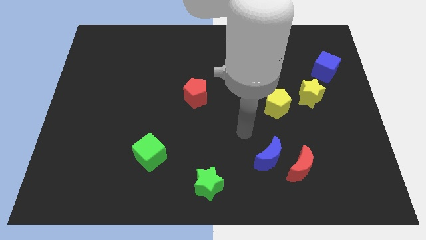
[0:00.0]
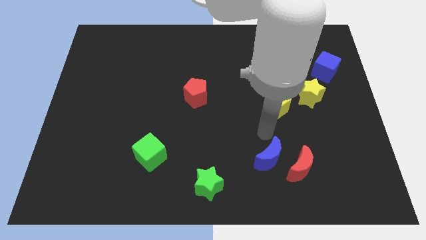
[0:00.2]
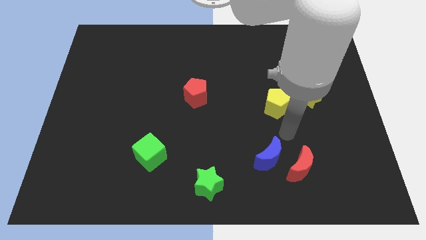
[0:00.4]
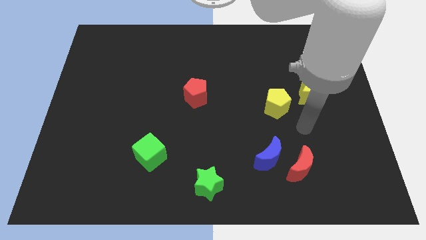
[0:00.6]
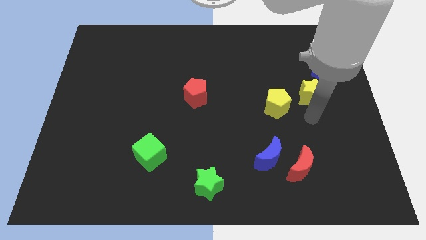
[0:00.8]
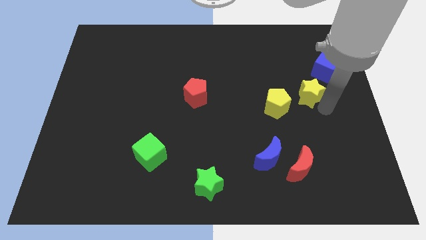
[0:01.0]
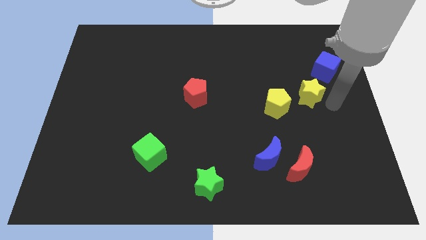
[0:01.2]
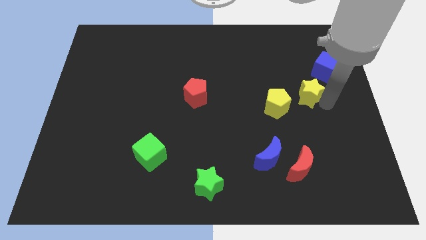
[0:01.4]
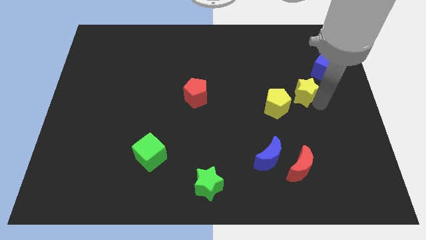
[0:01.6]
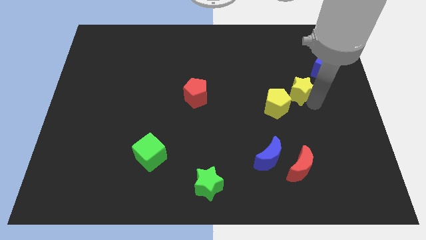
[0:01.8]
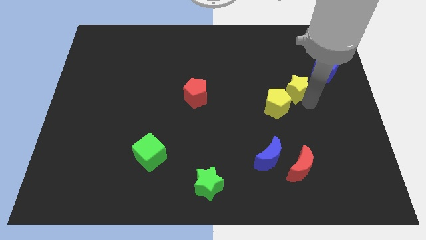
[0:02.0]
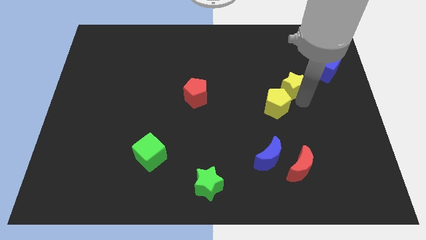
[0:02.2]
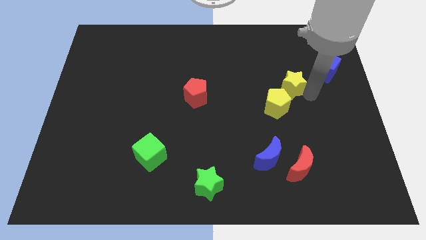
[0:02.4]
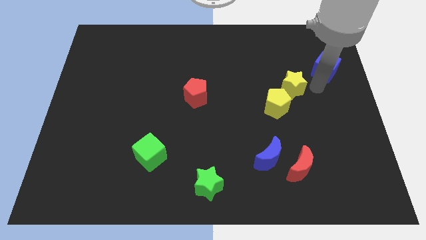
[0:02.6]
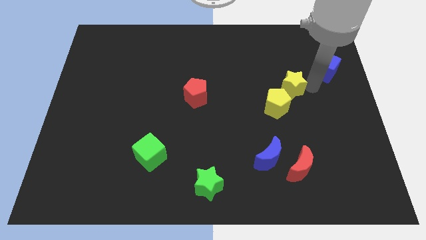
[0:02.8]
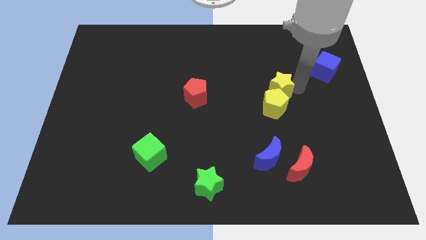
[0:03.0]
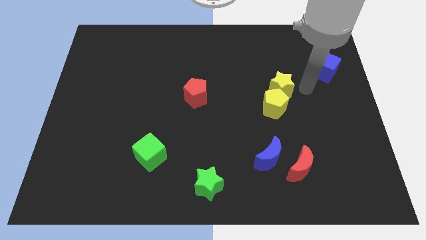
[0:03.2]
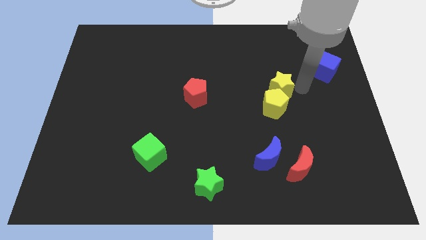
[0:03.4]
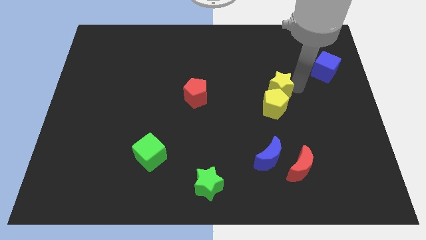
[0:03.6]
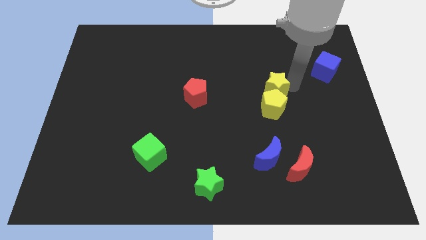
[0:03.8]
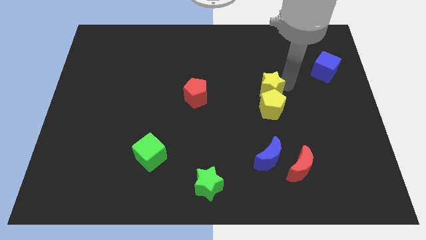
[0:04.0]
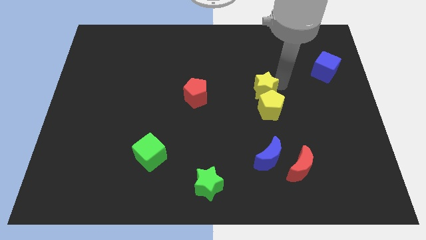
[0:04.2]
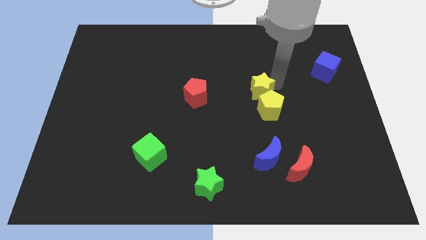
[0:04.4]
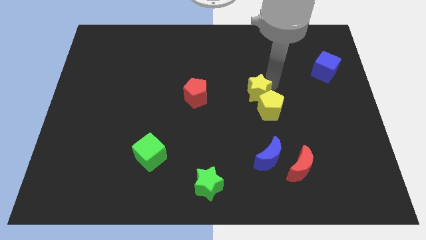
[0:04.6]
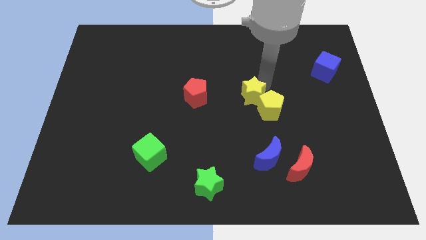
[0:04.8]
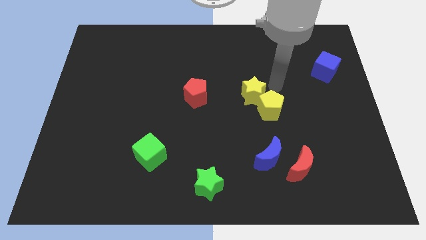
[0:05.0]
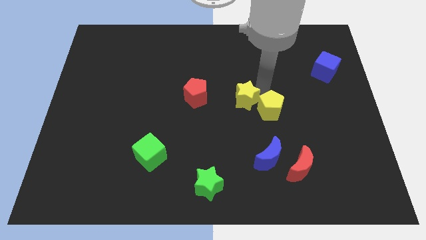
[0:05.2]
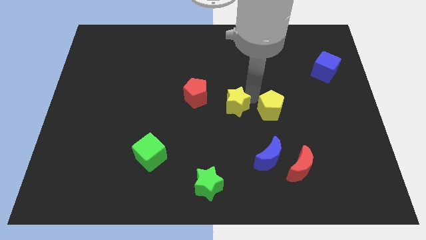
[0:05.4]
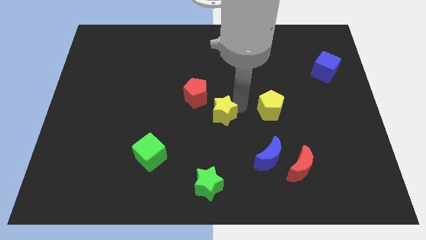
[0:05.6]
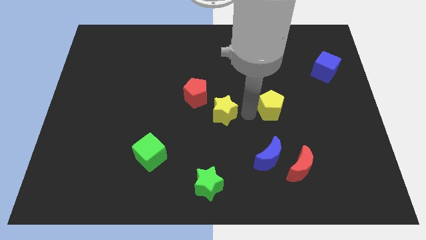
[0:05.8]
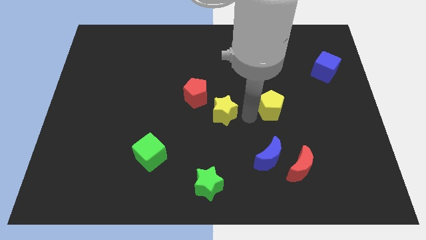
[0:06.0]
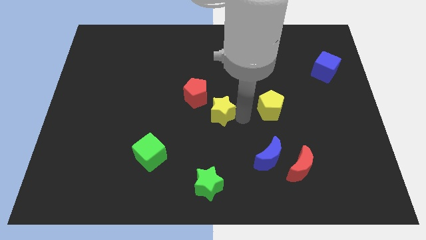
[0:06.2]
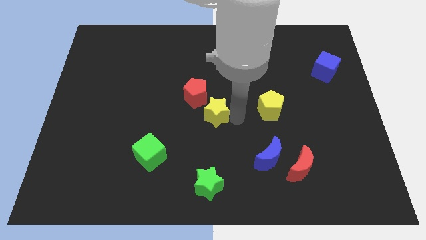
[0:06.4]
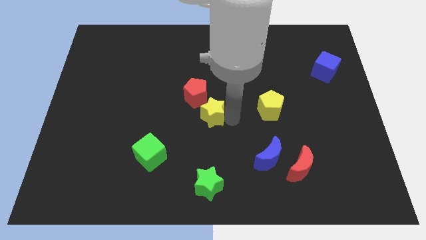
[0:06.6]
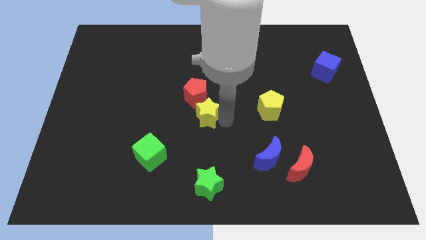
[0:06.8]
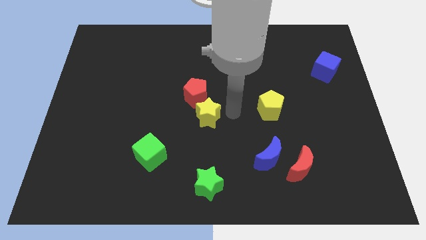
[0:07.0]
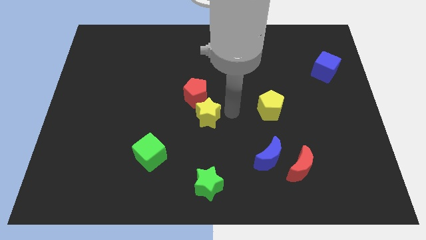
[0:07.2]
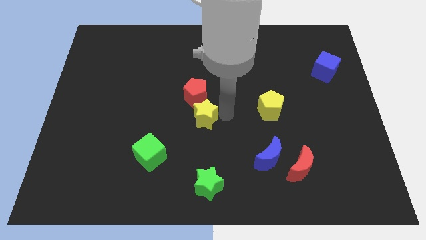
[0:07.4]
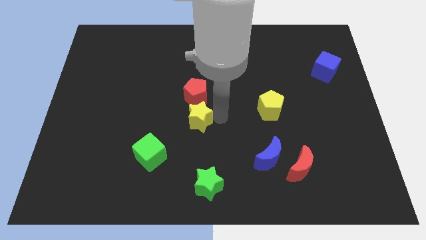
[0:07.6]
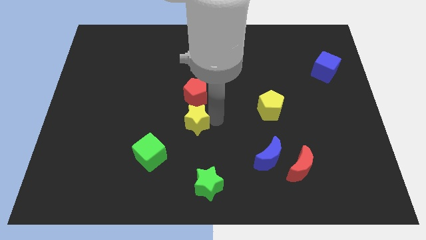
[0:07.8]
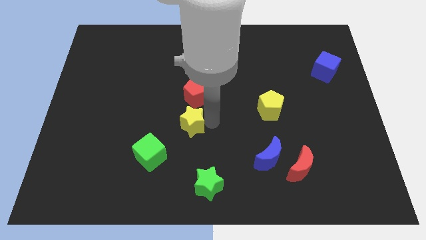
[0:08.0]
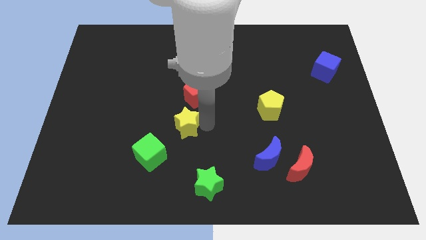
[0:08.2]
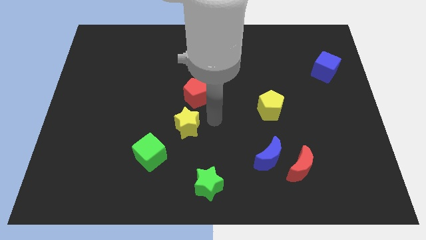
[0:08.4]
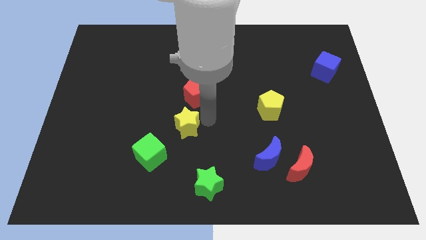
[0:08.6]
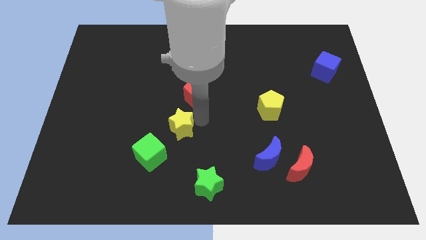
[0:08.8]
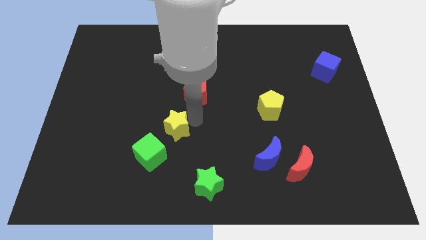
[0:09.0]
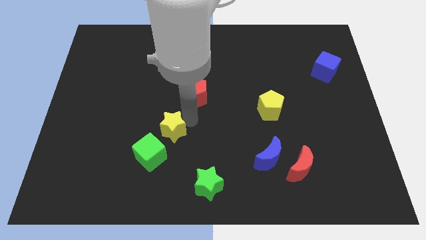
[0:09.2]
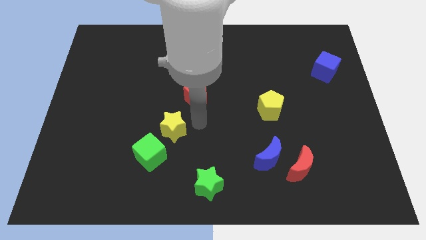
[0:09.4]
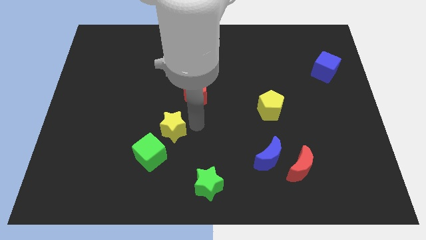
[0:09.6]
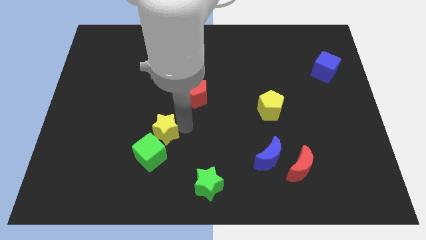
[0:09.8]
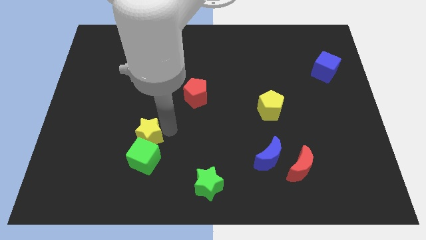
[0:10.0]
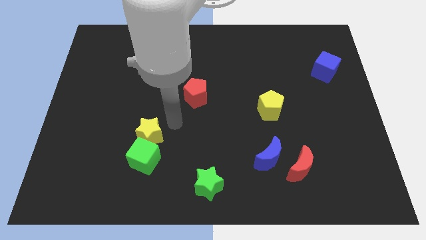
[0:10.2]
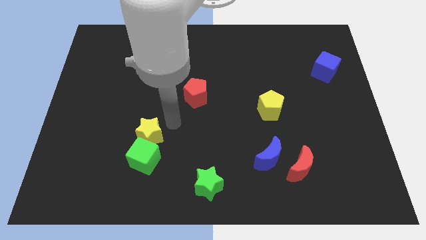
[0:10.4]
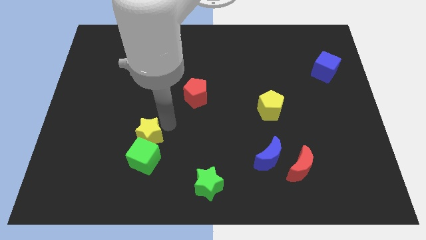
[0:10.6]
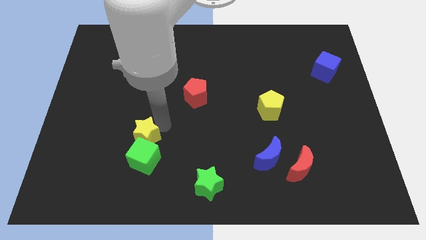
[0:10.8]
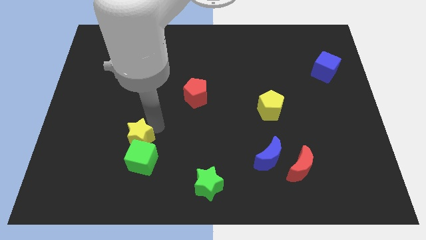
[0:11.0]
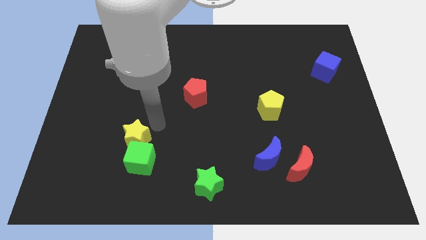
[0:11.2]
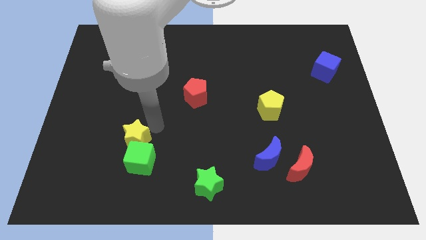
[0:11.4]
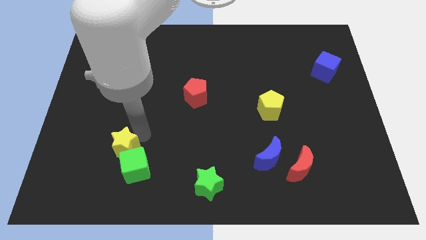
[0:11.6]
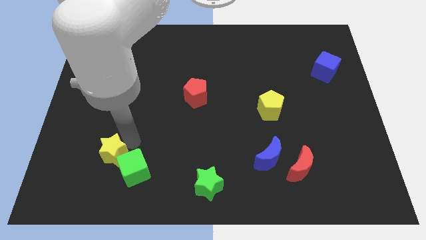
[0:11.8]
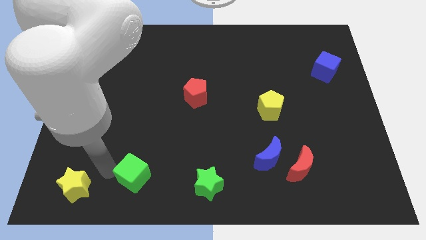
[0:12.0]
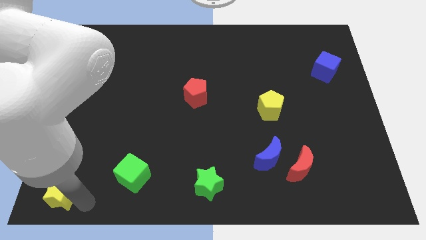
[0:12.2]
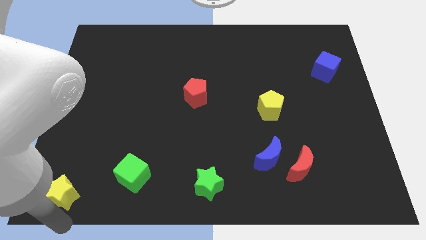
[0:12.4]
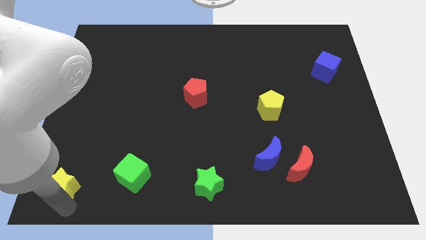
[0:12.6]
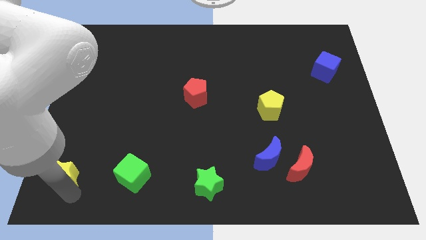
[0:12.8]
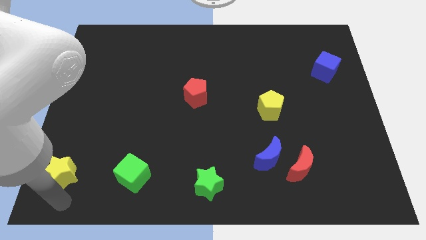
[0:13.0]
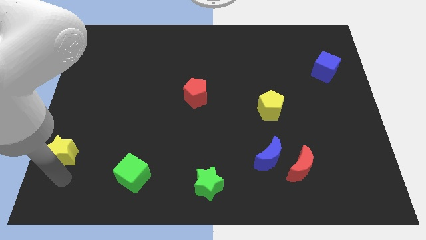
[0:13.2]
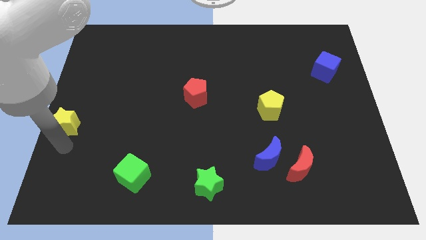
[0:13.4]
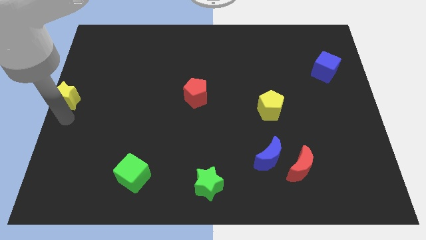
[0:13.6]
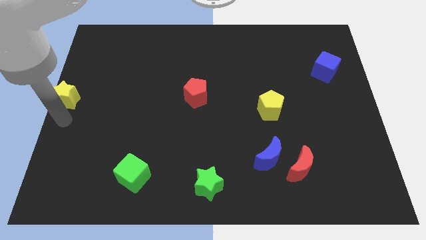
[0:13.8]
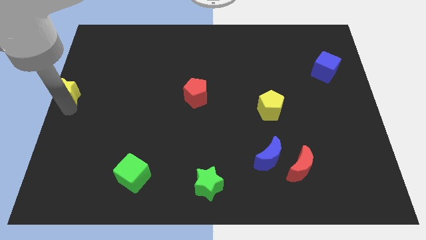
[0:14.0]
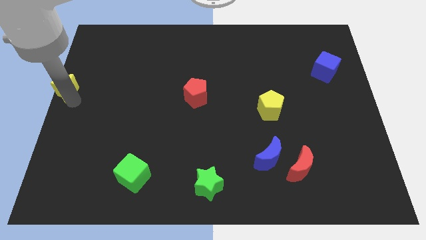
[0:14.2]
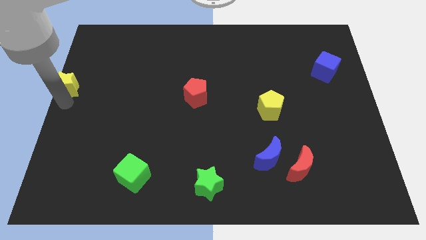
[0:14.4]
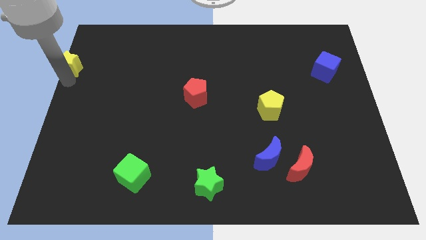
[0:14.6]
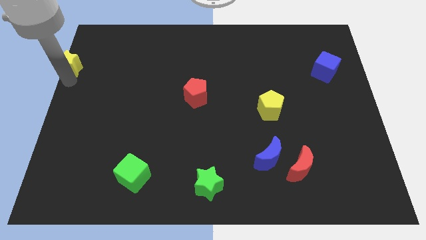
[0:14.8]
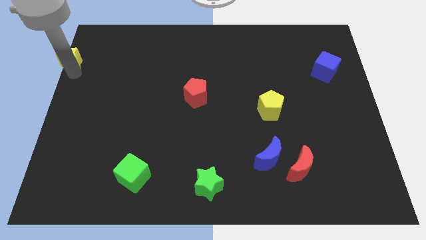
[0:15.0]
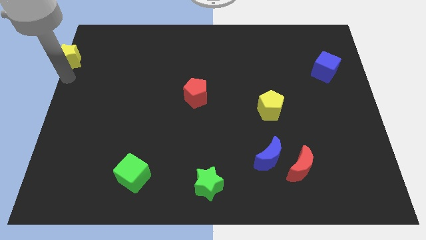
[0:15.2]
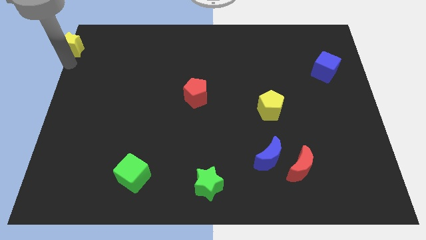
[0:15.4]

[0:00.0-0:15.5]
move the yellow star to the top left corner
